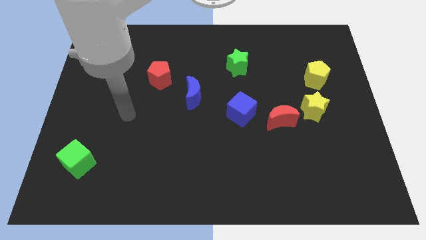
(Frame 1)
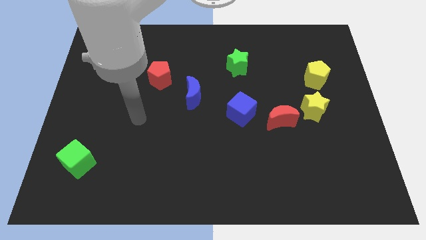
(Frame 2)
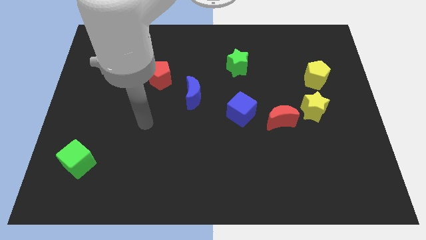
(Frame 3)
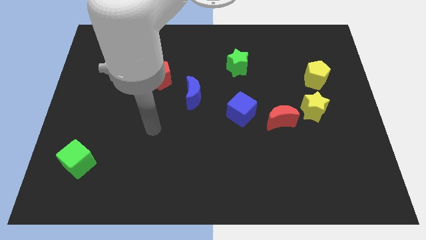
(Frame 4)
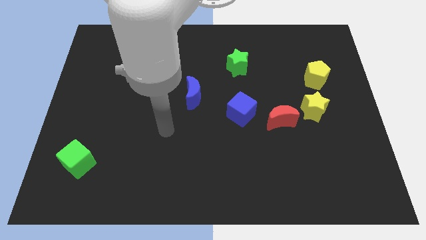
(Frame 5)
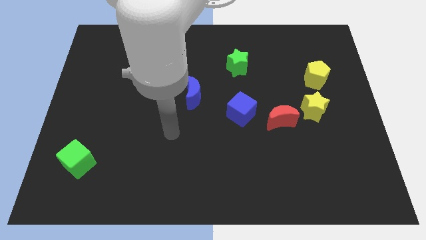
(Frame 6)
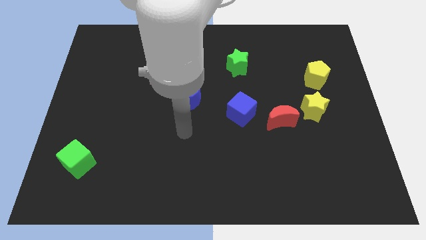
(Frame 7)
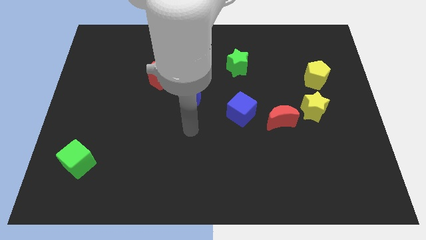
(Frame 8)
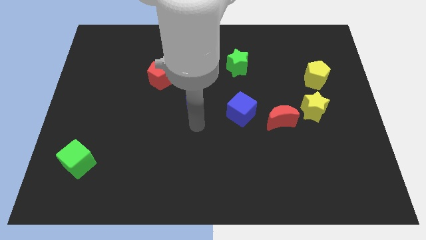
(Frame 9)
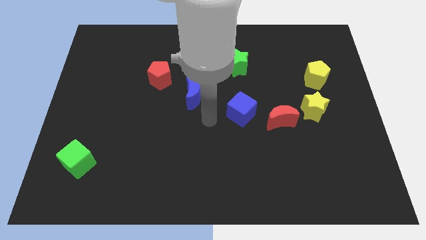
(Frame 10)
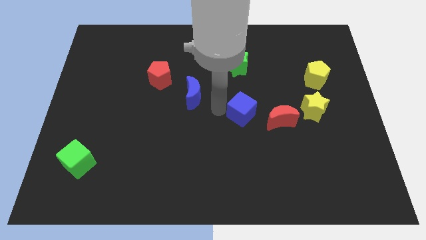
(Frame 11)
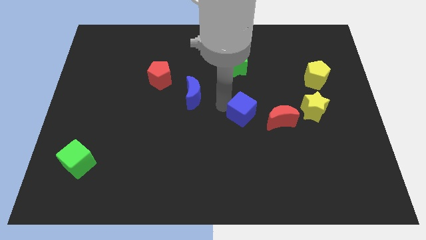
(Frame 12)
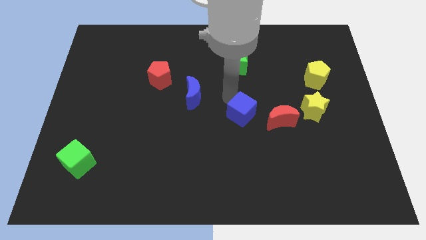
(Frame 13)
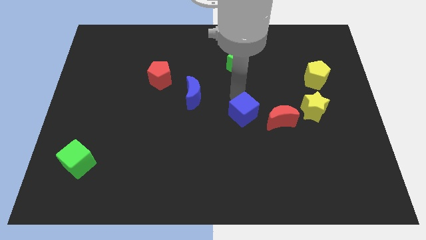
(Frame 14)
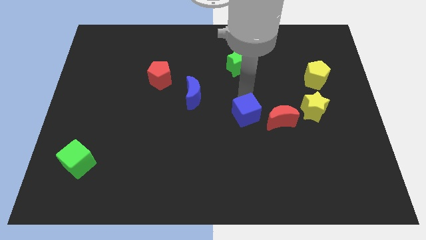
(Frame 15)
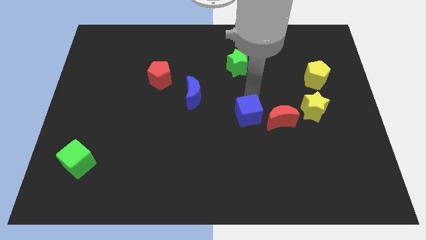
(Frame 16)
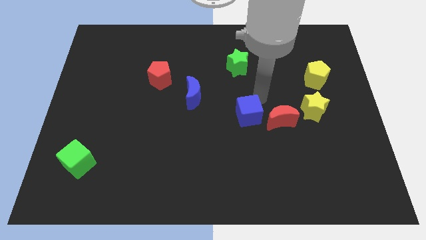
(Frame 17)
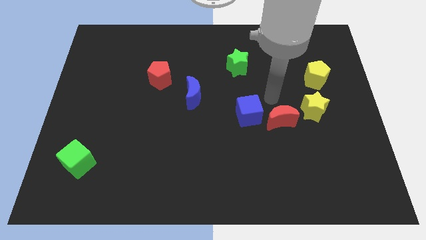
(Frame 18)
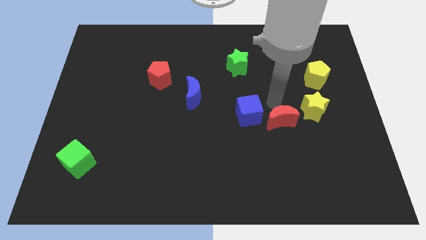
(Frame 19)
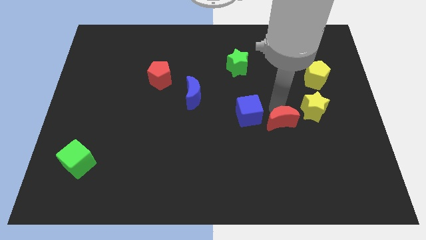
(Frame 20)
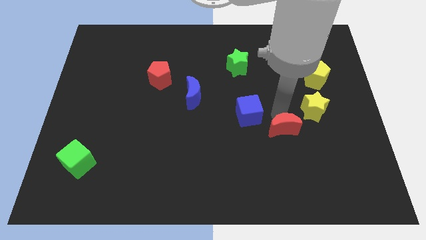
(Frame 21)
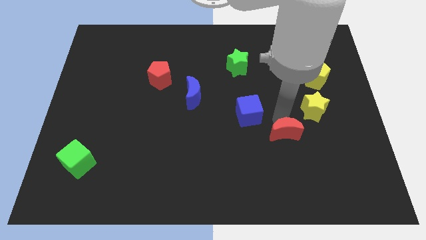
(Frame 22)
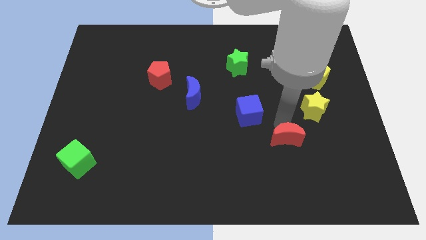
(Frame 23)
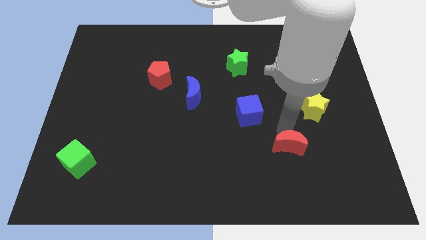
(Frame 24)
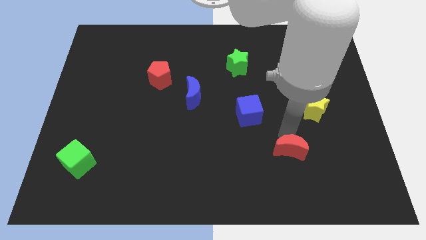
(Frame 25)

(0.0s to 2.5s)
move the red moon away from the yellow star and blue cube

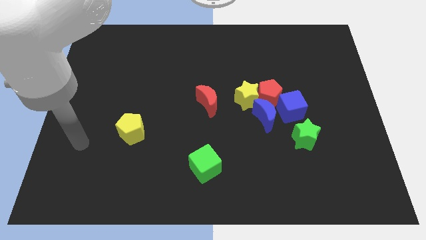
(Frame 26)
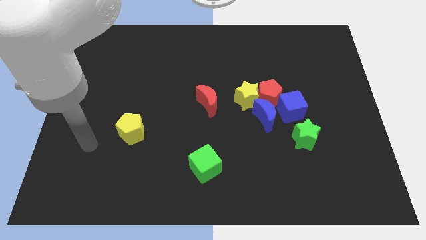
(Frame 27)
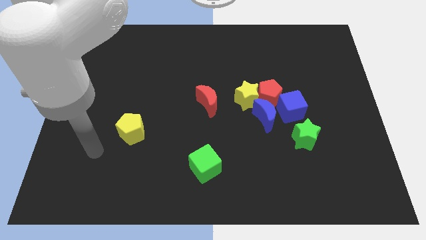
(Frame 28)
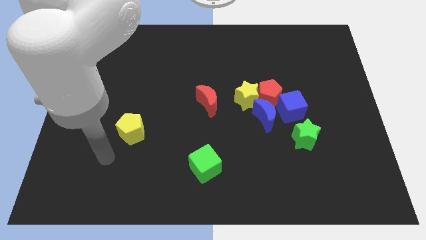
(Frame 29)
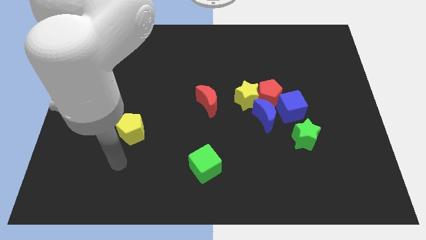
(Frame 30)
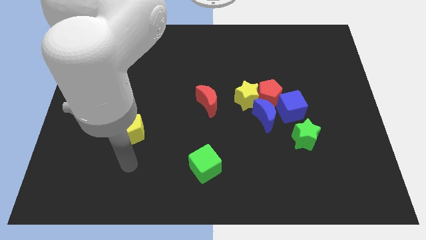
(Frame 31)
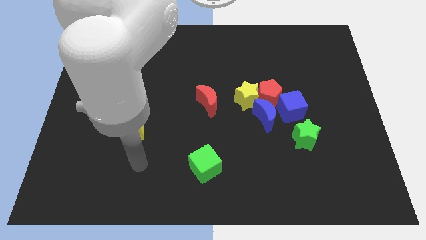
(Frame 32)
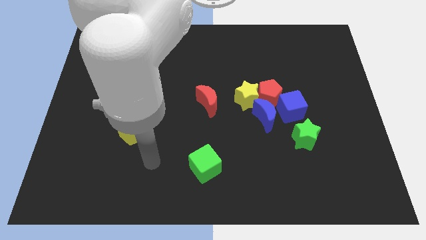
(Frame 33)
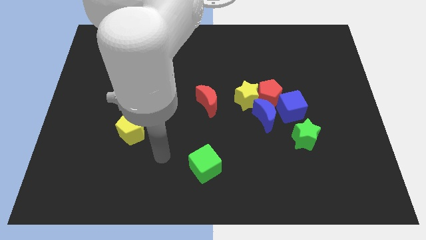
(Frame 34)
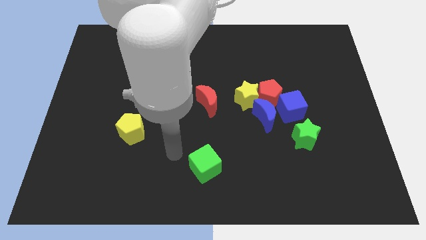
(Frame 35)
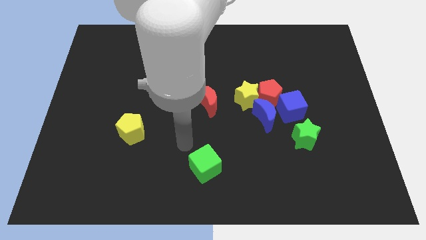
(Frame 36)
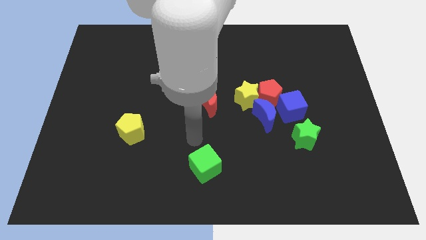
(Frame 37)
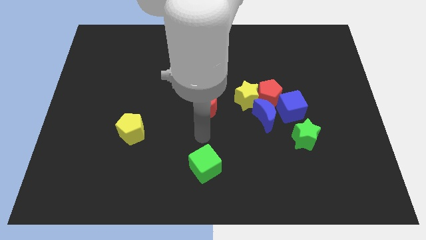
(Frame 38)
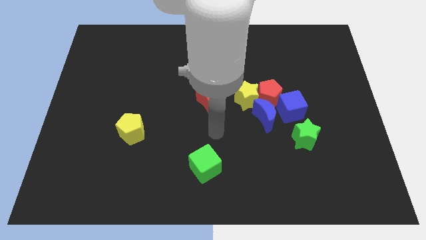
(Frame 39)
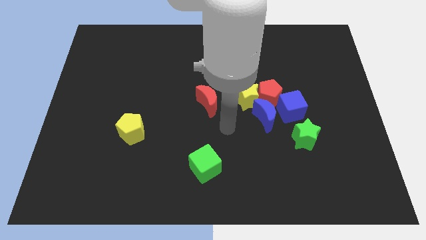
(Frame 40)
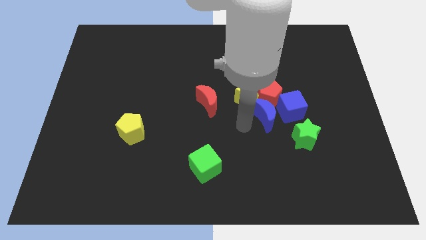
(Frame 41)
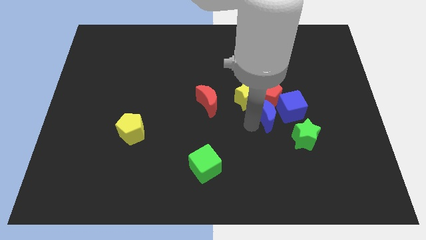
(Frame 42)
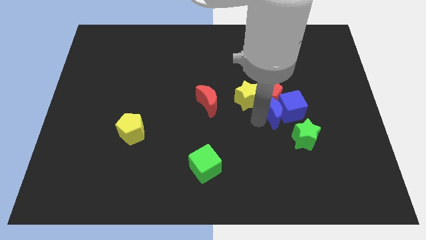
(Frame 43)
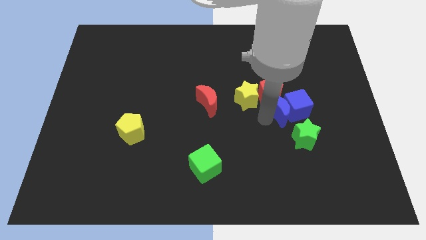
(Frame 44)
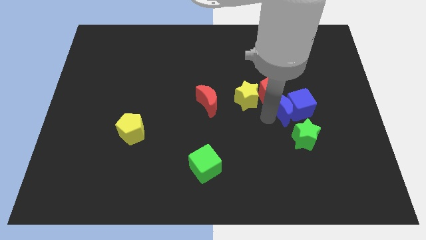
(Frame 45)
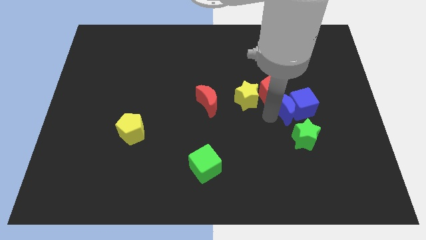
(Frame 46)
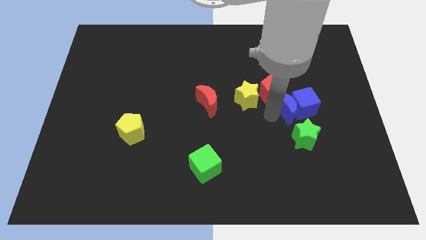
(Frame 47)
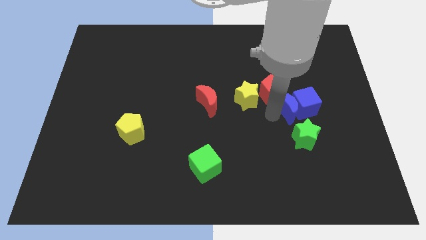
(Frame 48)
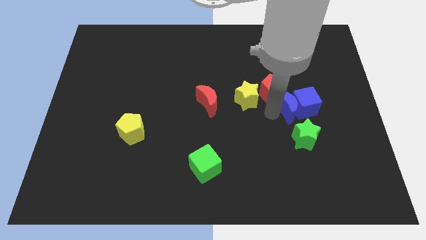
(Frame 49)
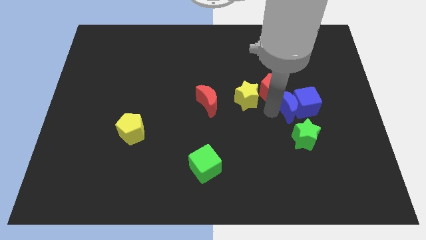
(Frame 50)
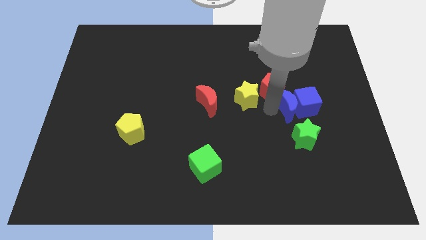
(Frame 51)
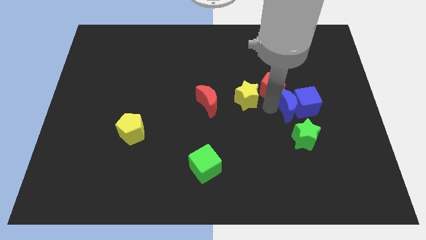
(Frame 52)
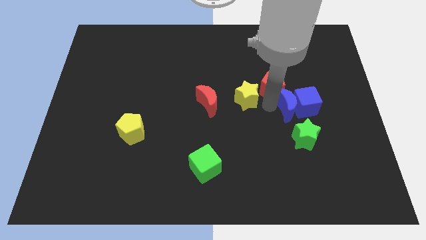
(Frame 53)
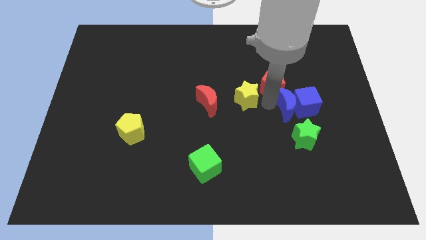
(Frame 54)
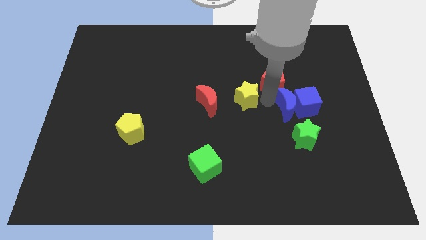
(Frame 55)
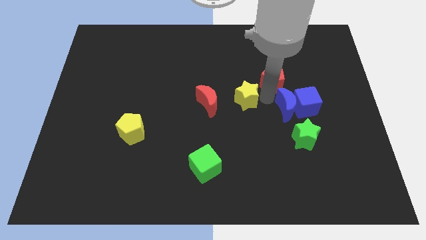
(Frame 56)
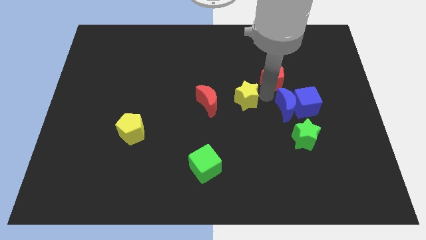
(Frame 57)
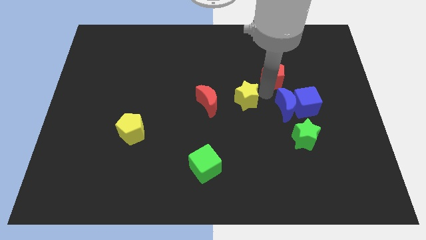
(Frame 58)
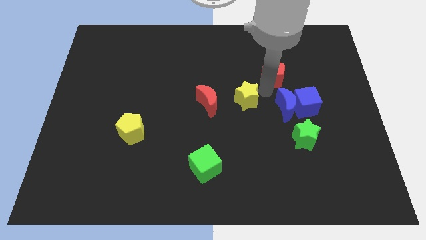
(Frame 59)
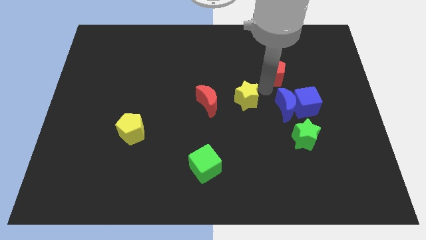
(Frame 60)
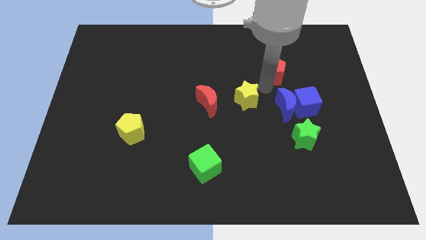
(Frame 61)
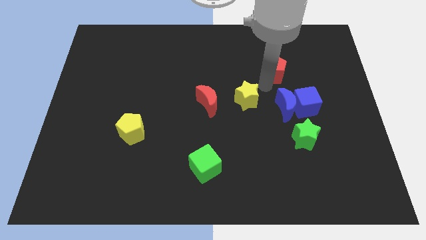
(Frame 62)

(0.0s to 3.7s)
separate the red pentagon from the yellow star, blue moon, and blue cube

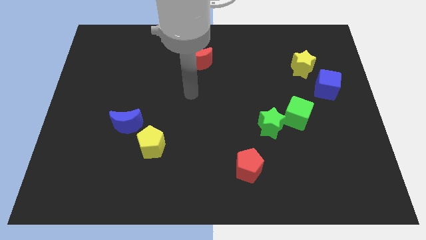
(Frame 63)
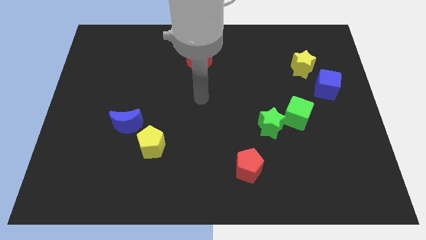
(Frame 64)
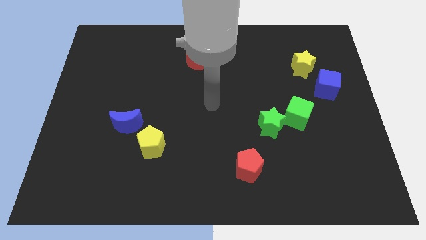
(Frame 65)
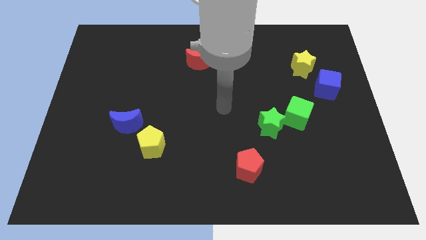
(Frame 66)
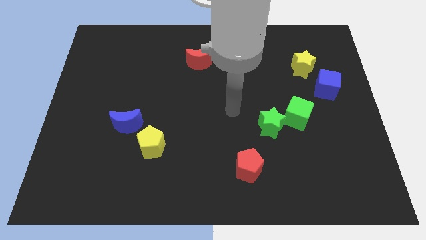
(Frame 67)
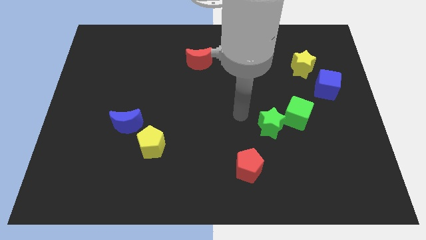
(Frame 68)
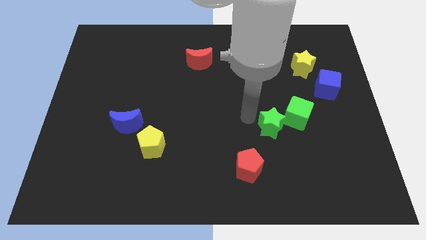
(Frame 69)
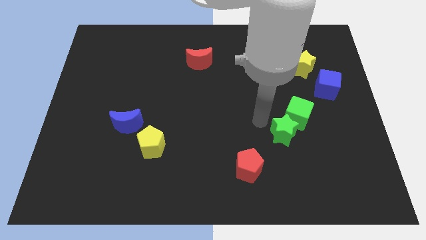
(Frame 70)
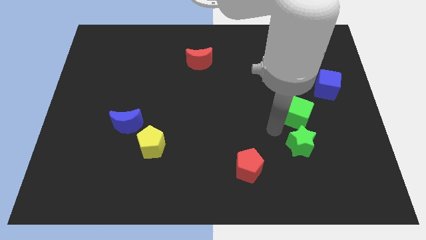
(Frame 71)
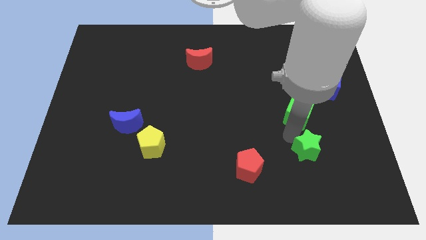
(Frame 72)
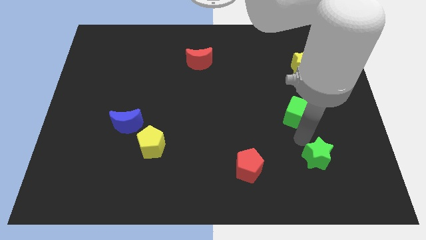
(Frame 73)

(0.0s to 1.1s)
pull the green cube apart from the green star

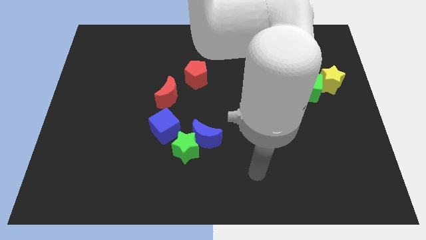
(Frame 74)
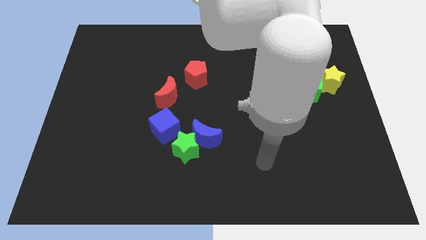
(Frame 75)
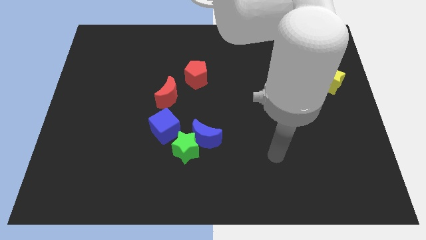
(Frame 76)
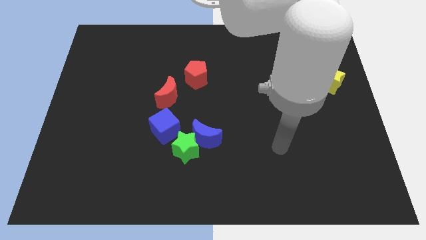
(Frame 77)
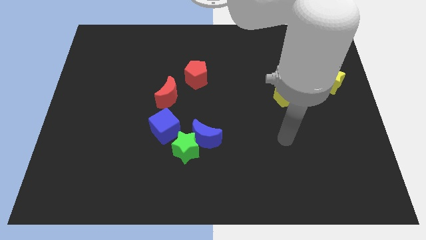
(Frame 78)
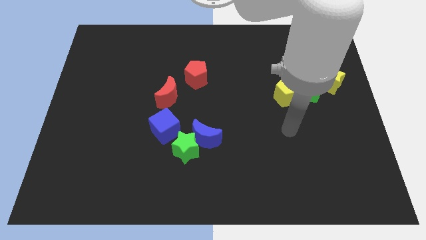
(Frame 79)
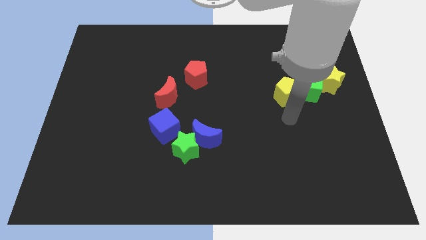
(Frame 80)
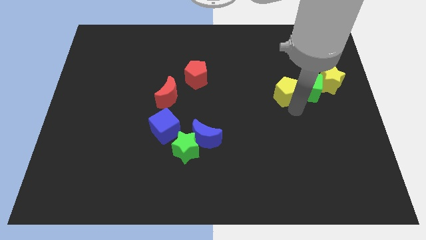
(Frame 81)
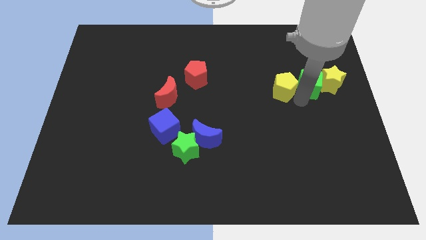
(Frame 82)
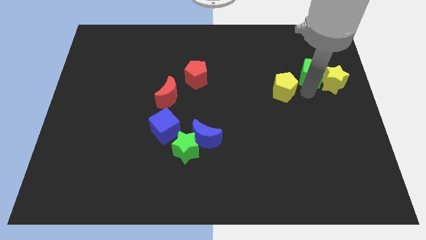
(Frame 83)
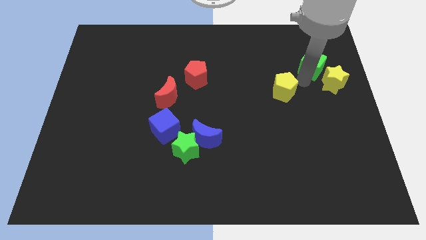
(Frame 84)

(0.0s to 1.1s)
separate the yellow pentagon from the green cube

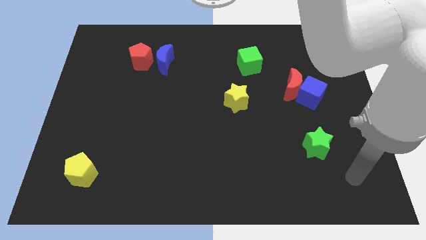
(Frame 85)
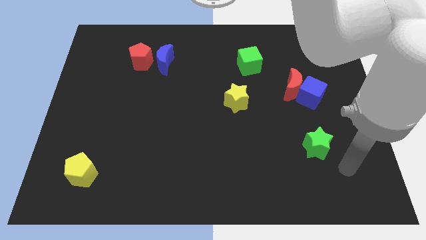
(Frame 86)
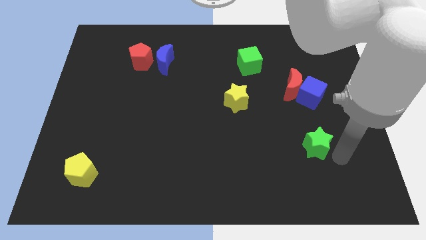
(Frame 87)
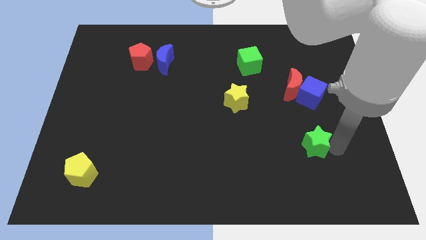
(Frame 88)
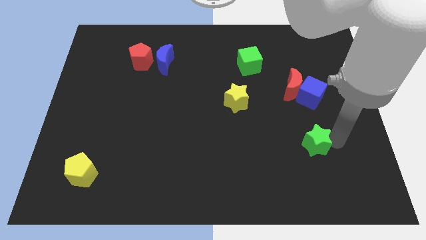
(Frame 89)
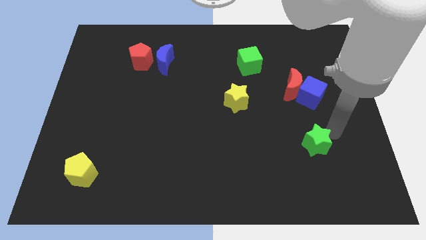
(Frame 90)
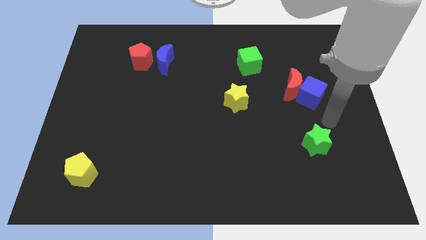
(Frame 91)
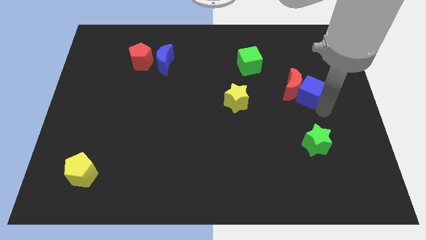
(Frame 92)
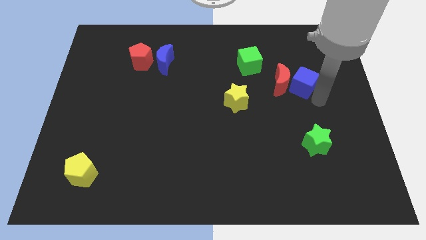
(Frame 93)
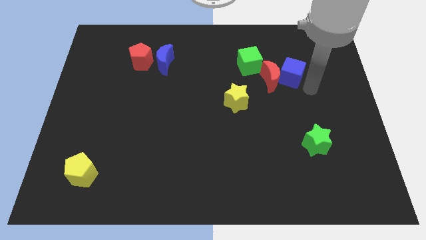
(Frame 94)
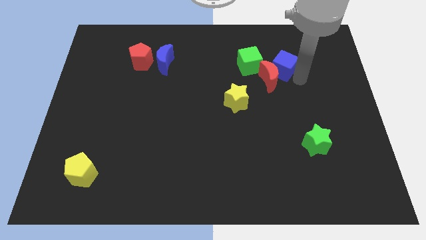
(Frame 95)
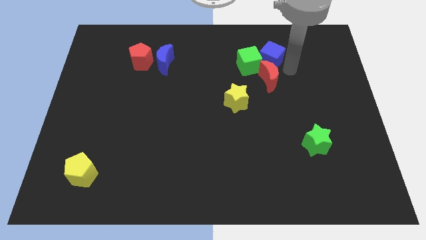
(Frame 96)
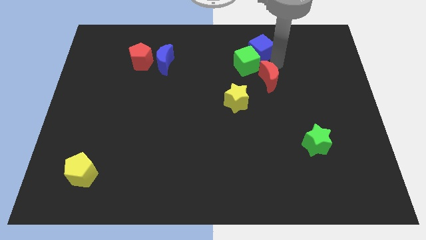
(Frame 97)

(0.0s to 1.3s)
move the red moon away from the blue cube
